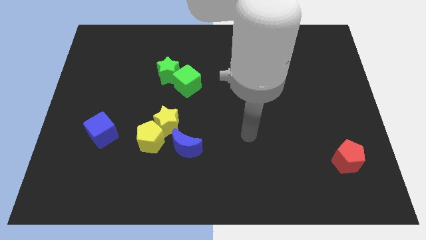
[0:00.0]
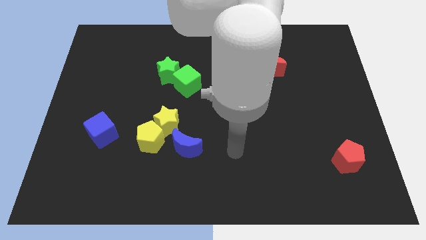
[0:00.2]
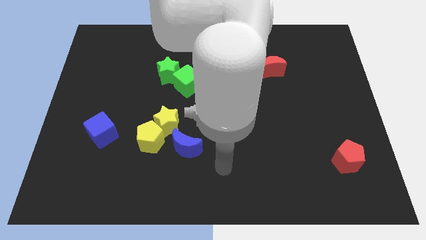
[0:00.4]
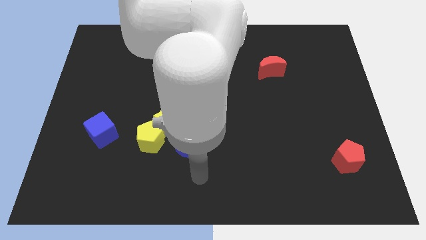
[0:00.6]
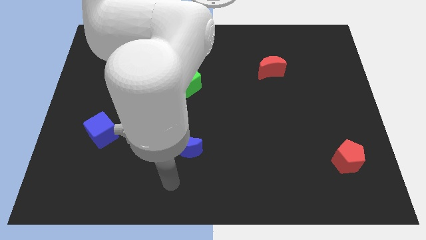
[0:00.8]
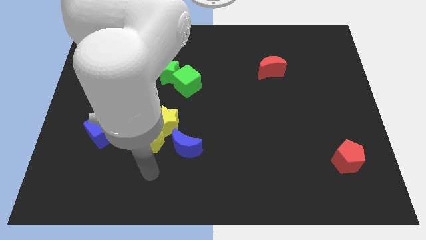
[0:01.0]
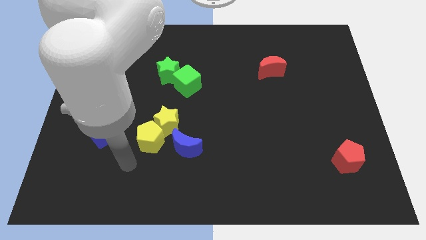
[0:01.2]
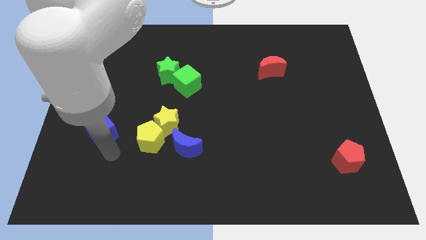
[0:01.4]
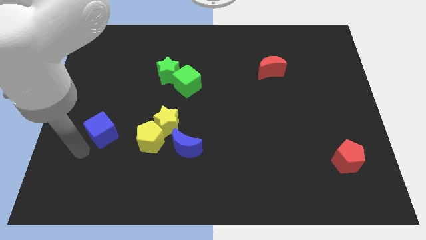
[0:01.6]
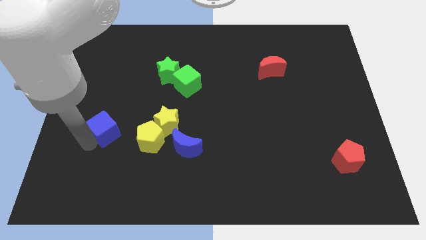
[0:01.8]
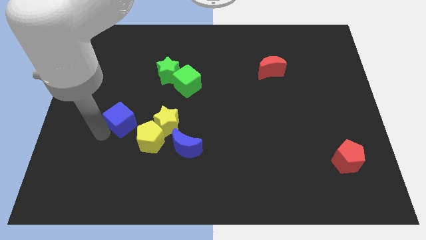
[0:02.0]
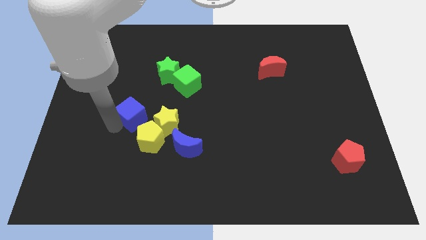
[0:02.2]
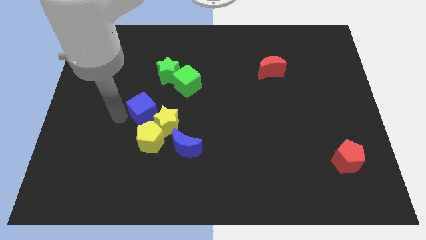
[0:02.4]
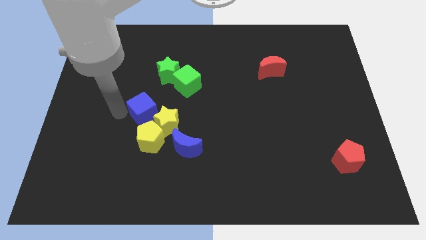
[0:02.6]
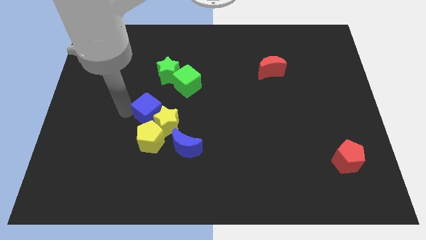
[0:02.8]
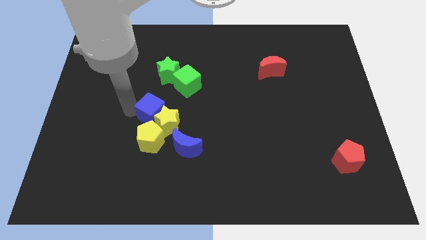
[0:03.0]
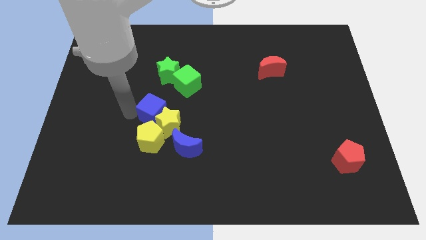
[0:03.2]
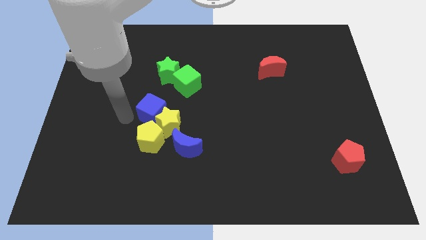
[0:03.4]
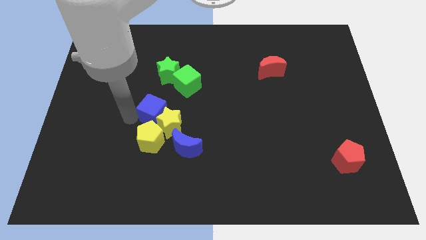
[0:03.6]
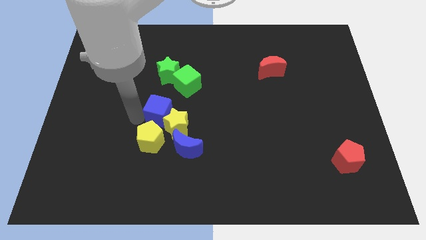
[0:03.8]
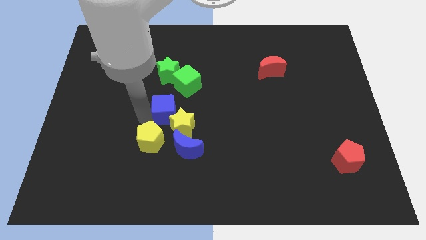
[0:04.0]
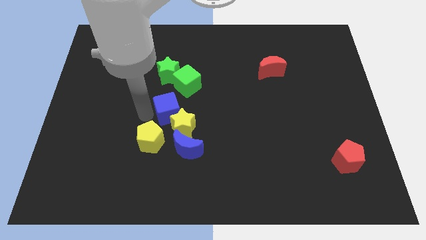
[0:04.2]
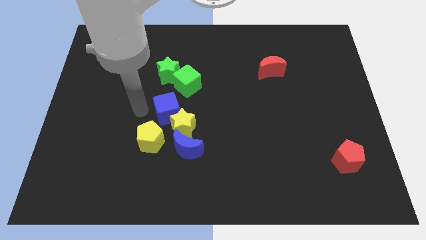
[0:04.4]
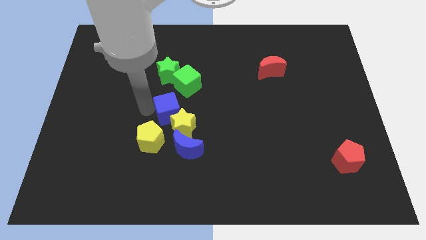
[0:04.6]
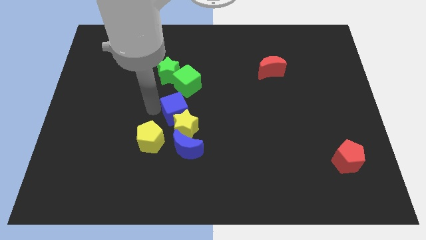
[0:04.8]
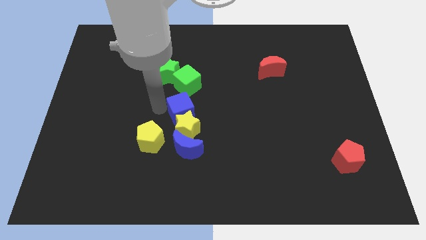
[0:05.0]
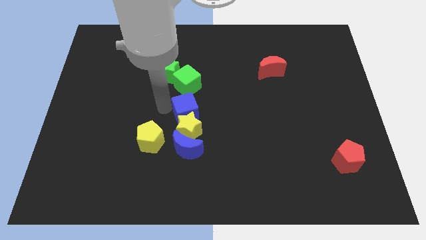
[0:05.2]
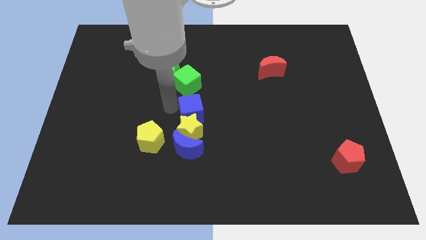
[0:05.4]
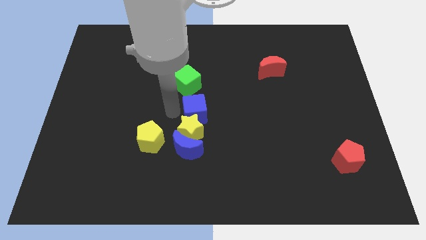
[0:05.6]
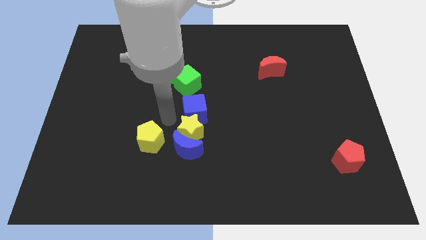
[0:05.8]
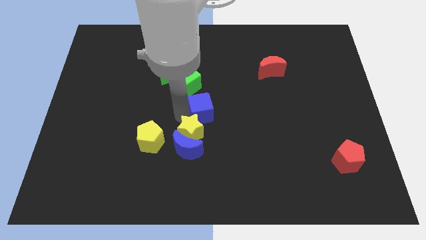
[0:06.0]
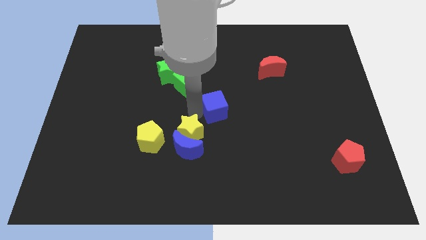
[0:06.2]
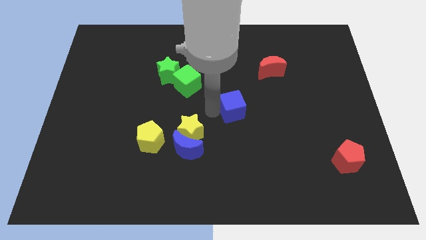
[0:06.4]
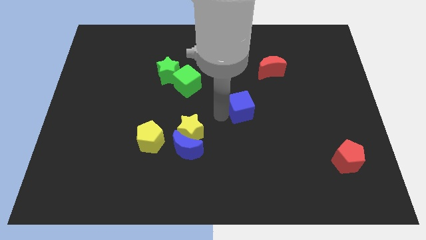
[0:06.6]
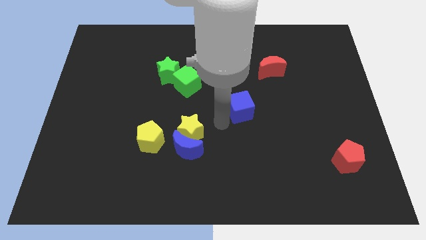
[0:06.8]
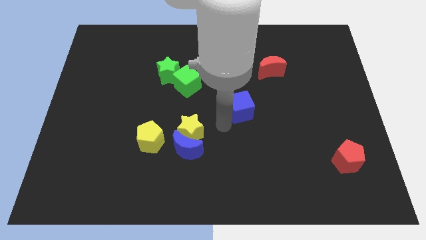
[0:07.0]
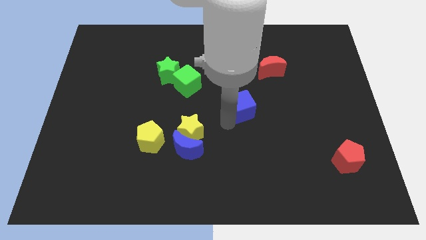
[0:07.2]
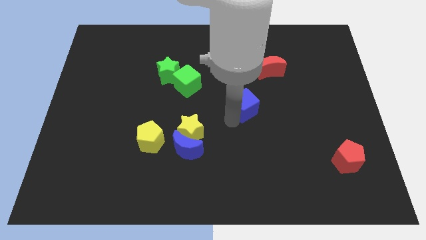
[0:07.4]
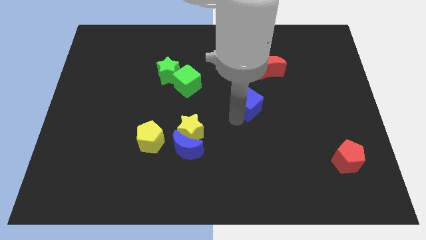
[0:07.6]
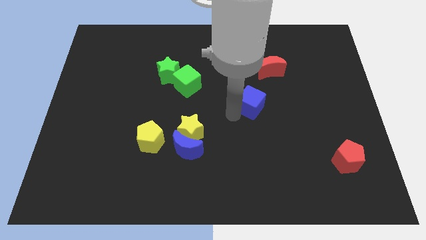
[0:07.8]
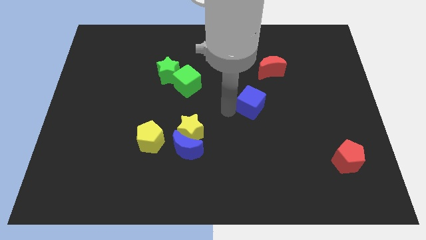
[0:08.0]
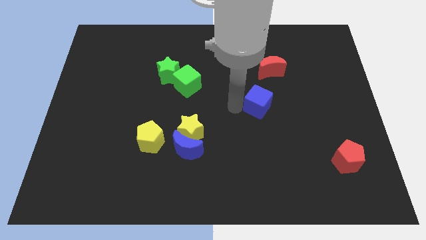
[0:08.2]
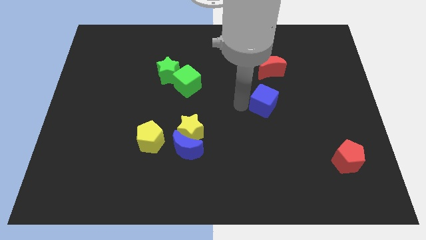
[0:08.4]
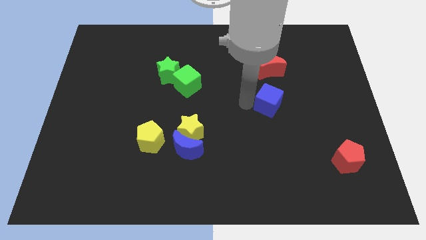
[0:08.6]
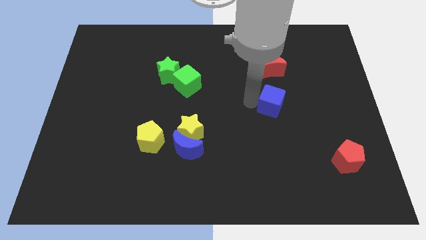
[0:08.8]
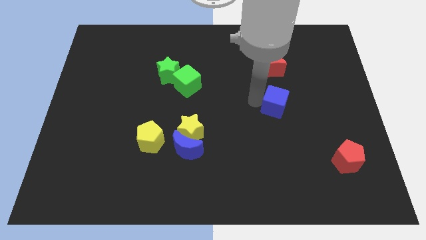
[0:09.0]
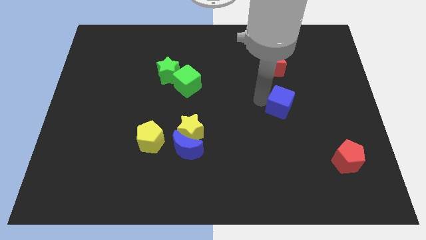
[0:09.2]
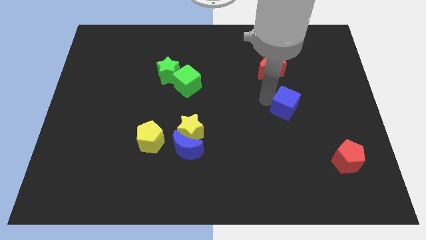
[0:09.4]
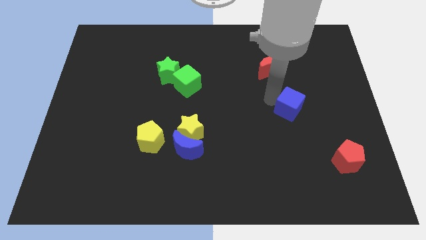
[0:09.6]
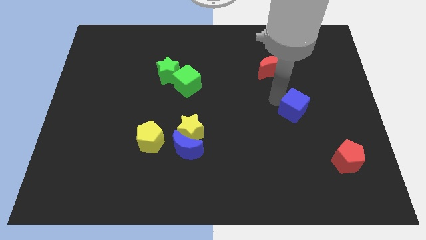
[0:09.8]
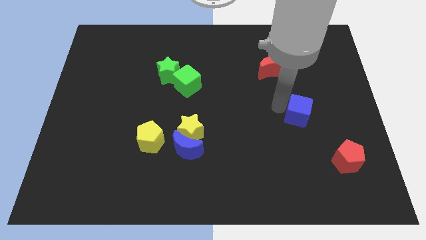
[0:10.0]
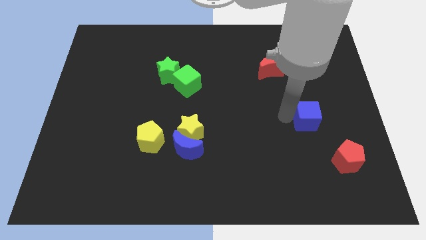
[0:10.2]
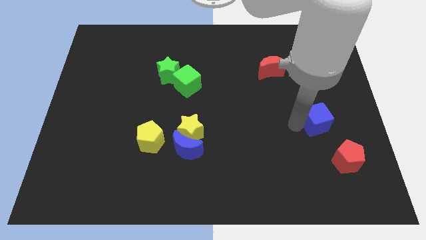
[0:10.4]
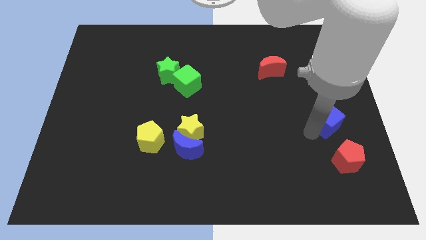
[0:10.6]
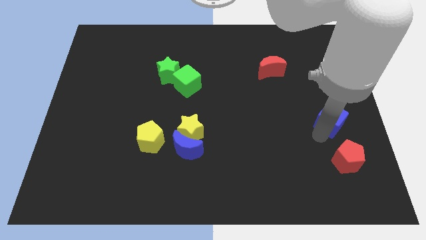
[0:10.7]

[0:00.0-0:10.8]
push the blue cube to the center right
